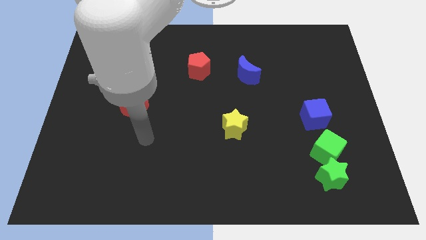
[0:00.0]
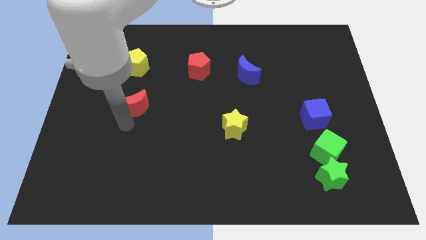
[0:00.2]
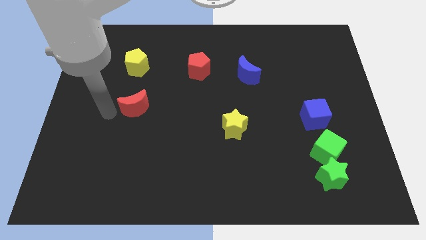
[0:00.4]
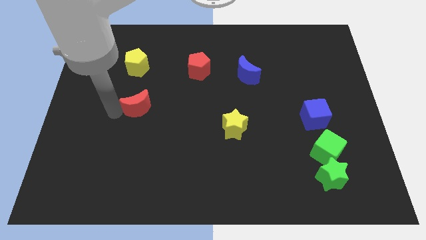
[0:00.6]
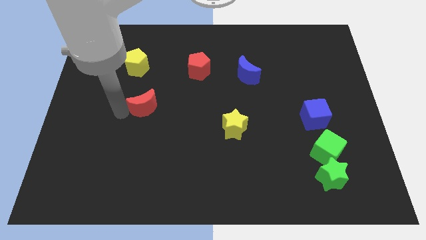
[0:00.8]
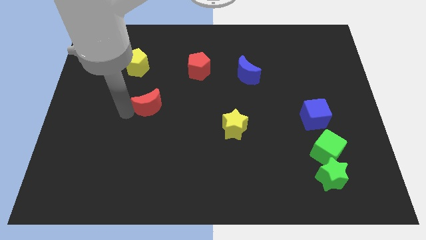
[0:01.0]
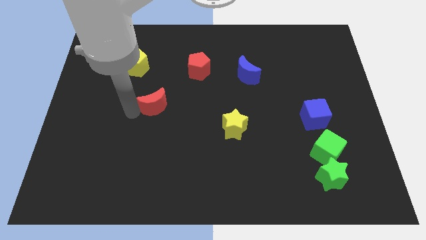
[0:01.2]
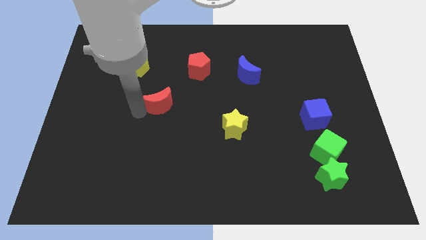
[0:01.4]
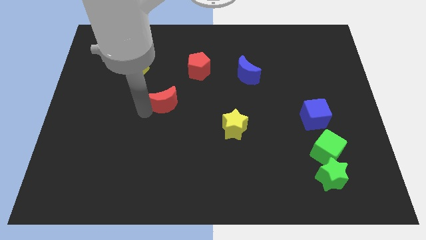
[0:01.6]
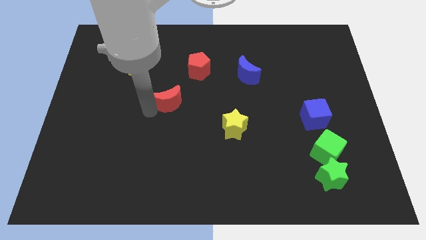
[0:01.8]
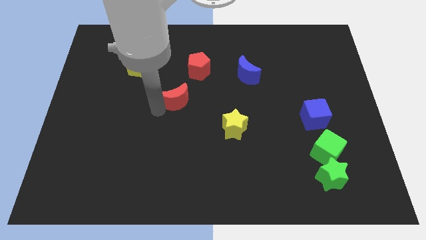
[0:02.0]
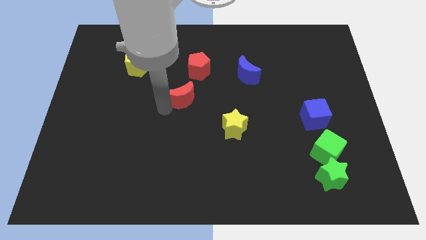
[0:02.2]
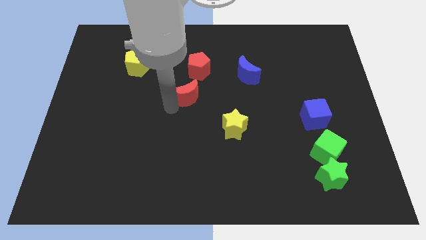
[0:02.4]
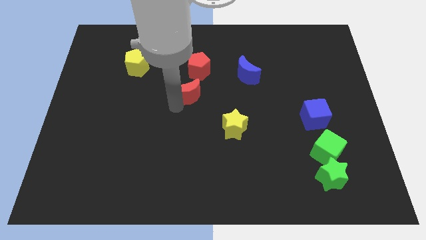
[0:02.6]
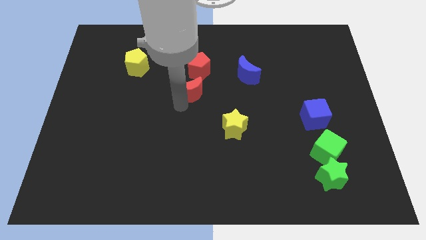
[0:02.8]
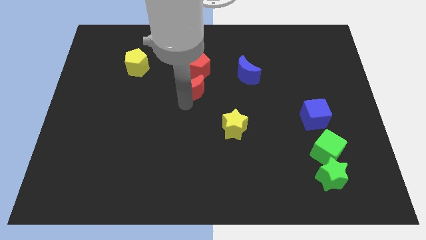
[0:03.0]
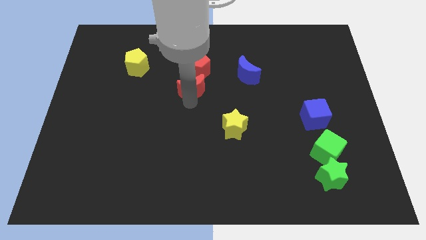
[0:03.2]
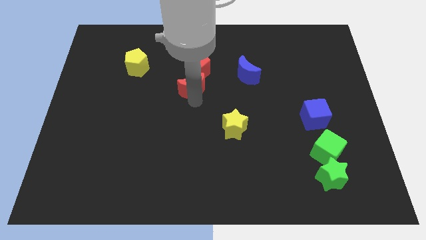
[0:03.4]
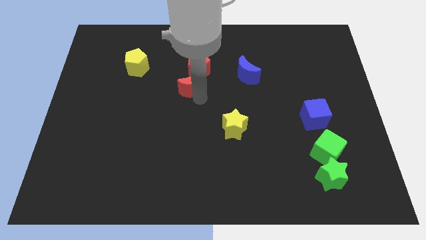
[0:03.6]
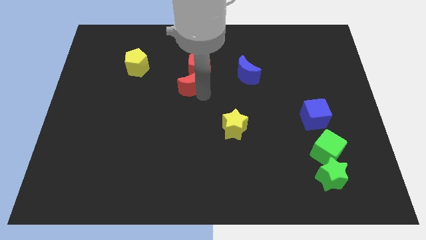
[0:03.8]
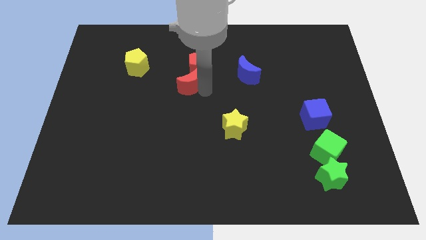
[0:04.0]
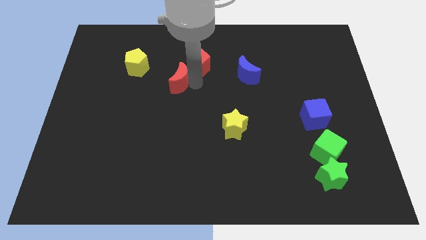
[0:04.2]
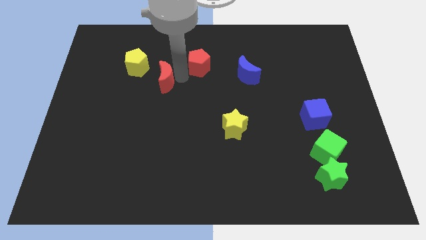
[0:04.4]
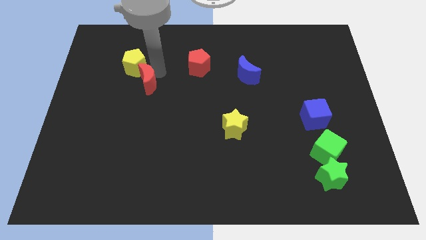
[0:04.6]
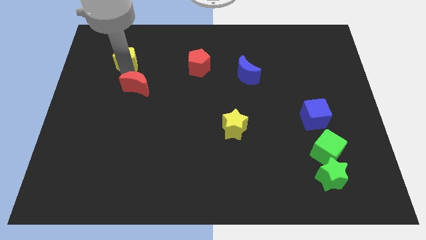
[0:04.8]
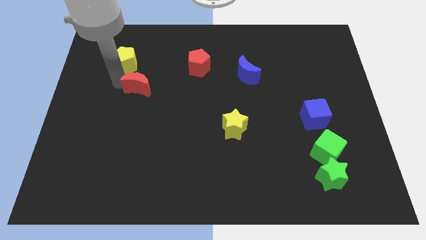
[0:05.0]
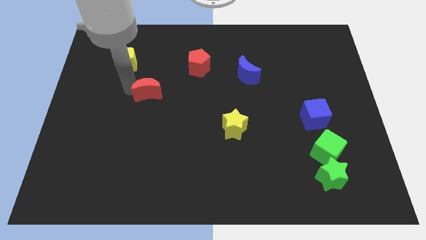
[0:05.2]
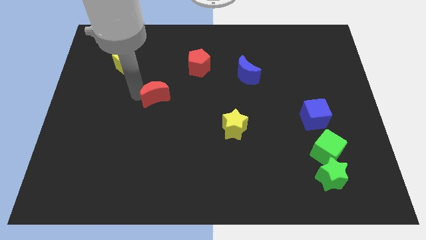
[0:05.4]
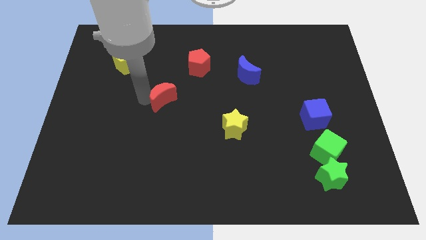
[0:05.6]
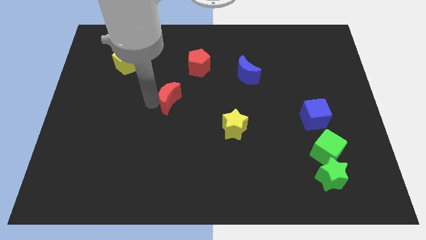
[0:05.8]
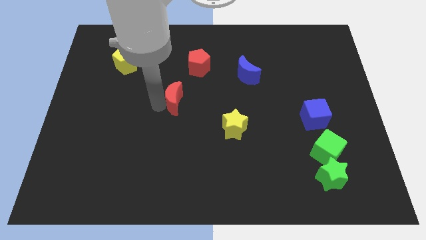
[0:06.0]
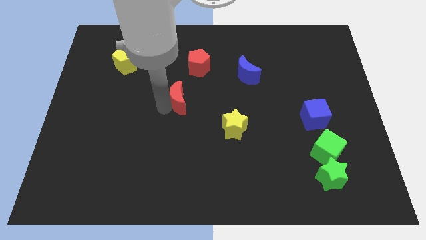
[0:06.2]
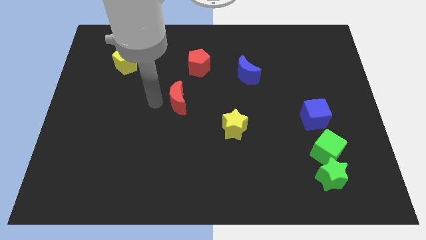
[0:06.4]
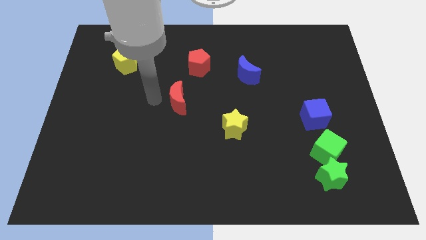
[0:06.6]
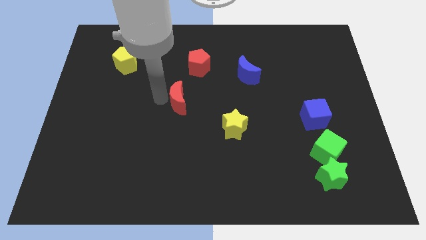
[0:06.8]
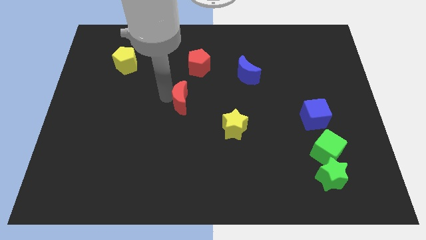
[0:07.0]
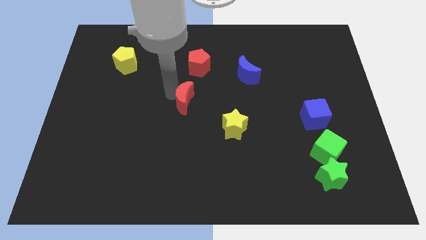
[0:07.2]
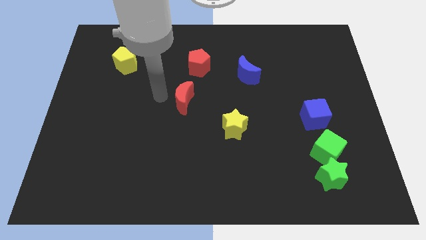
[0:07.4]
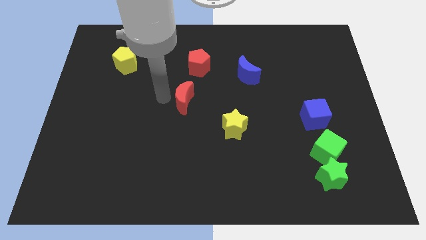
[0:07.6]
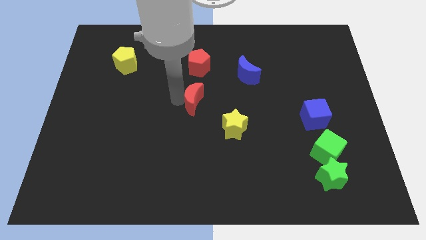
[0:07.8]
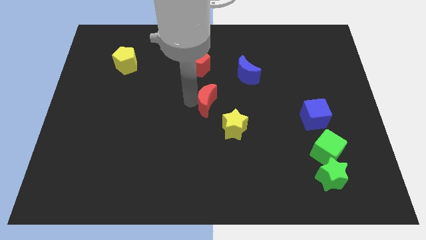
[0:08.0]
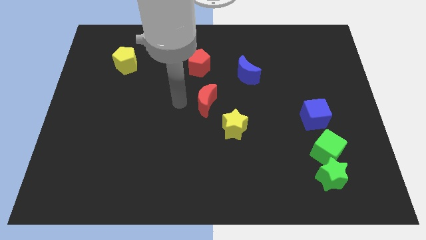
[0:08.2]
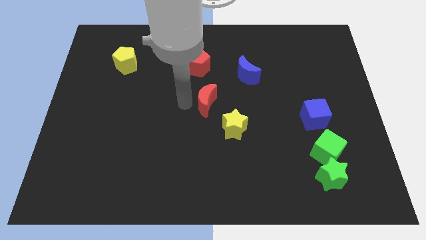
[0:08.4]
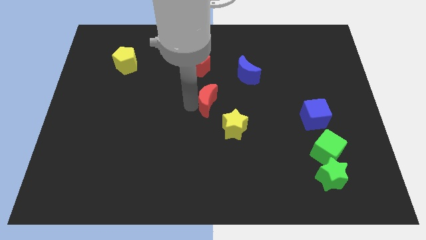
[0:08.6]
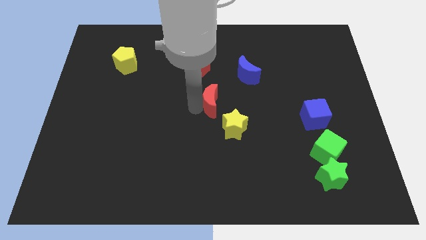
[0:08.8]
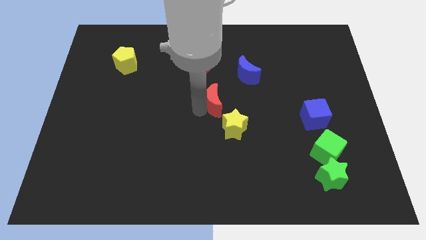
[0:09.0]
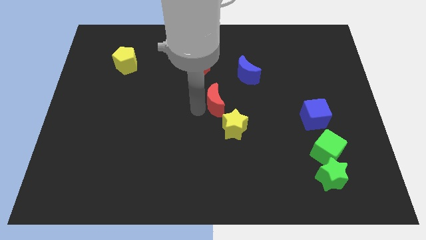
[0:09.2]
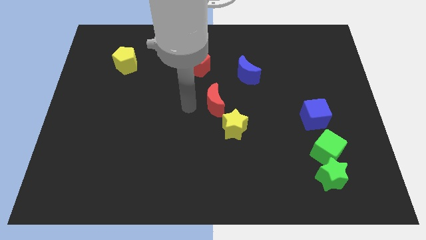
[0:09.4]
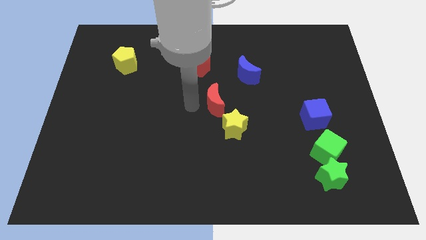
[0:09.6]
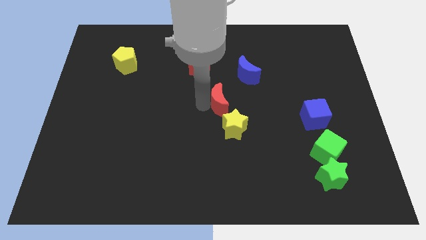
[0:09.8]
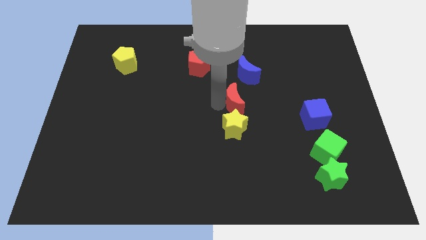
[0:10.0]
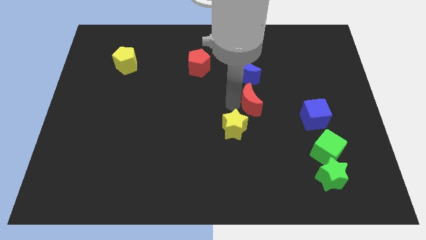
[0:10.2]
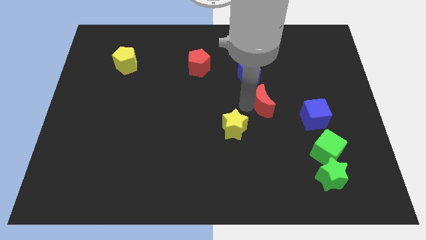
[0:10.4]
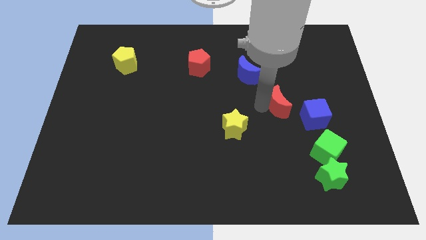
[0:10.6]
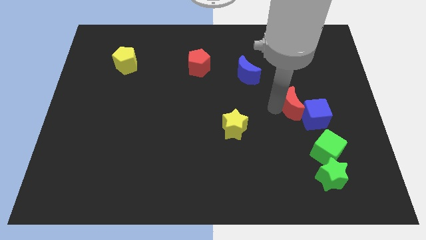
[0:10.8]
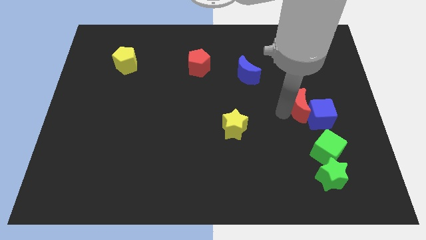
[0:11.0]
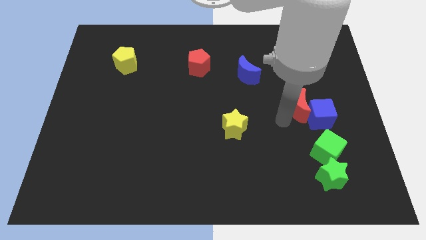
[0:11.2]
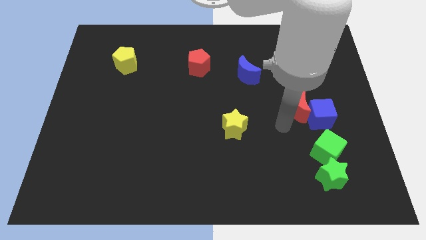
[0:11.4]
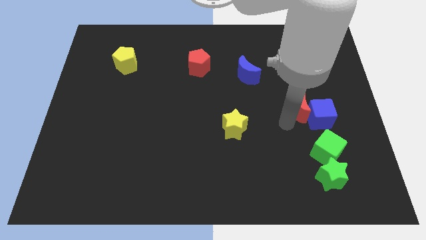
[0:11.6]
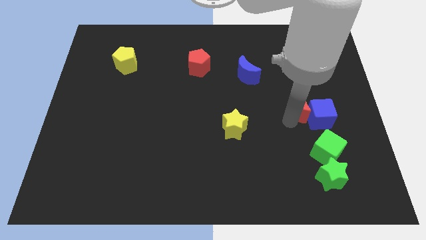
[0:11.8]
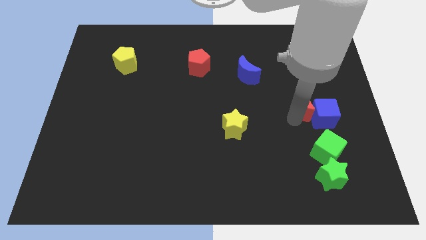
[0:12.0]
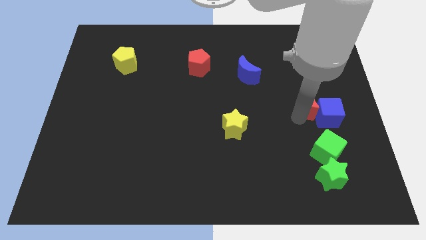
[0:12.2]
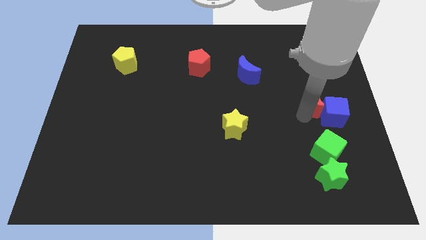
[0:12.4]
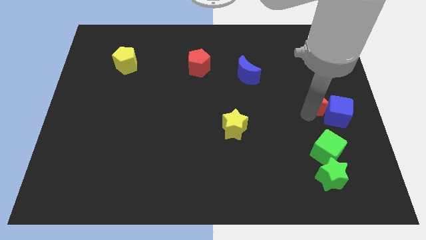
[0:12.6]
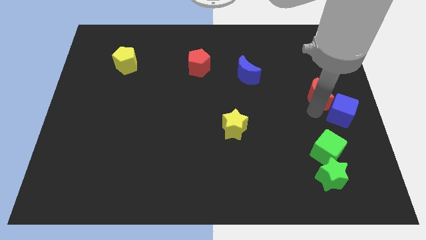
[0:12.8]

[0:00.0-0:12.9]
slide the red moon to the right side
